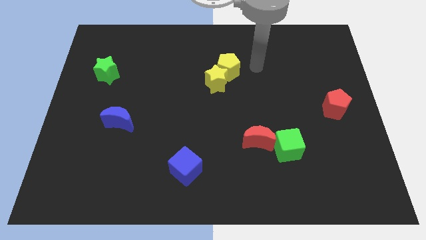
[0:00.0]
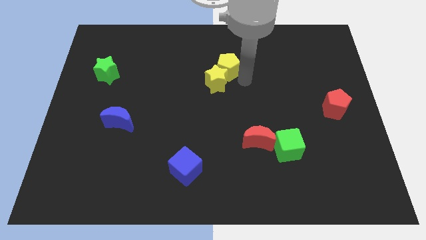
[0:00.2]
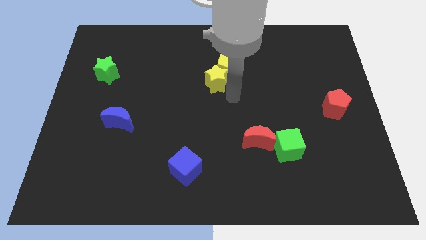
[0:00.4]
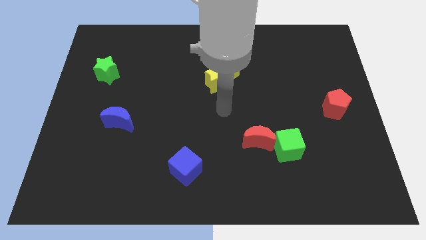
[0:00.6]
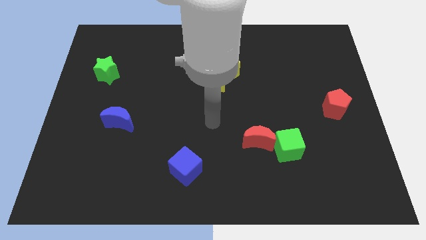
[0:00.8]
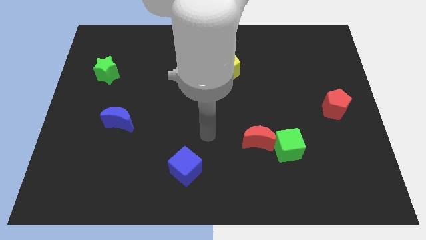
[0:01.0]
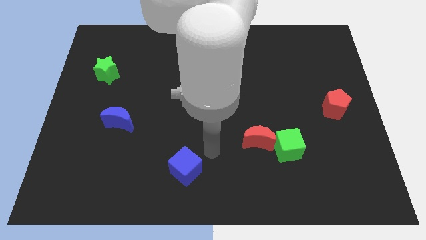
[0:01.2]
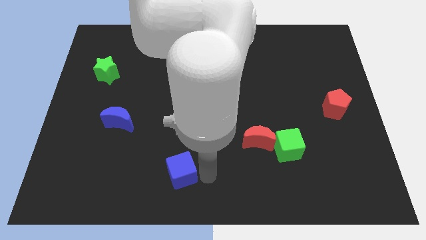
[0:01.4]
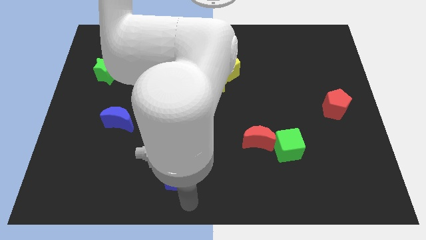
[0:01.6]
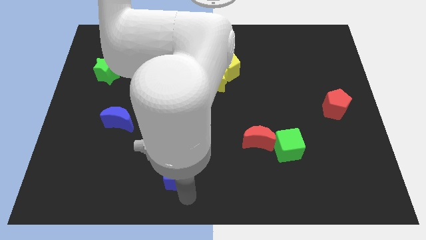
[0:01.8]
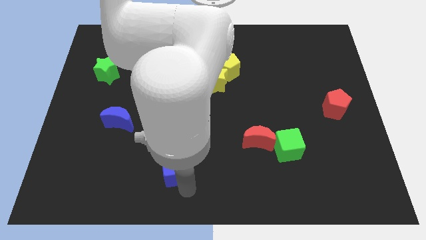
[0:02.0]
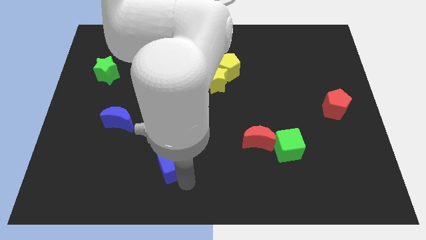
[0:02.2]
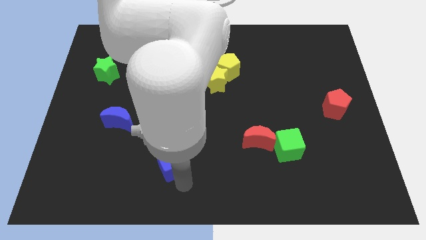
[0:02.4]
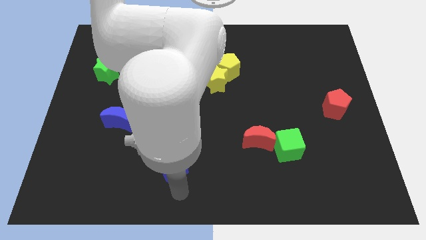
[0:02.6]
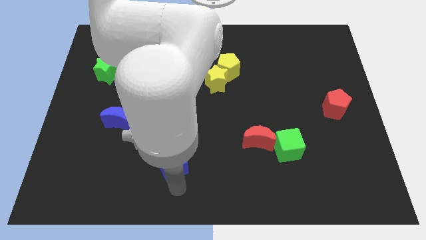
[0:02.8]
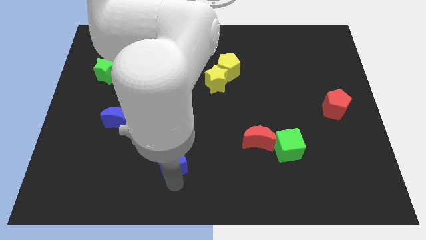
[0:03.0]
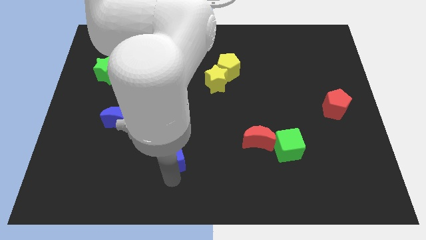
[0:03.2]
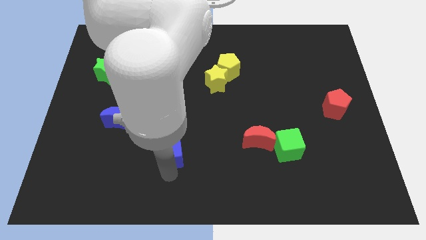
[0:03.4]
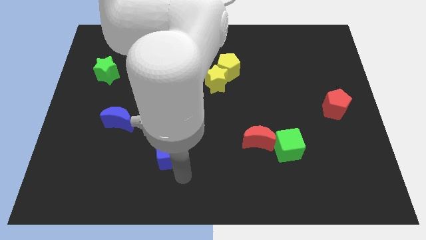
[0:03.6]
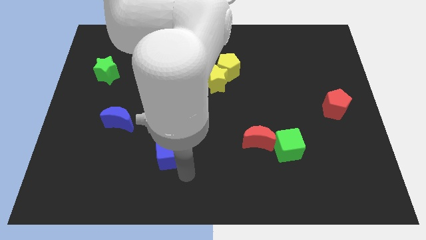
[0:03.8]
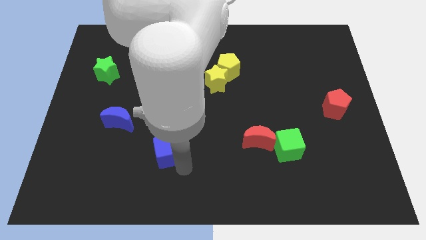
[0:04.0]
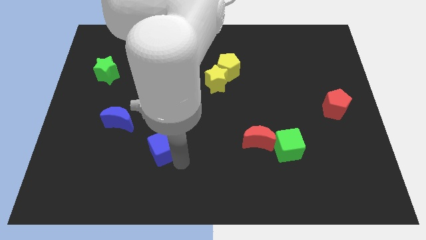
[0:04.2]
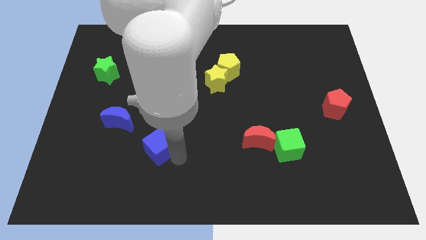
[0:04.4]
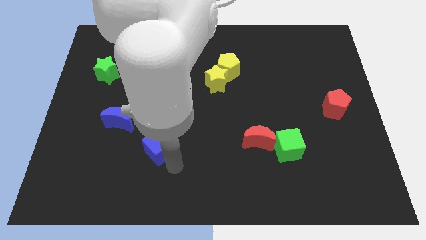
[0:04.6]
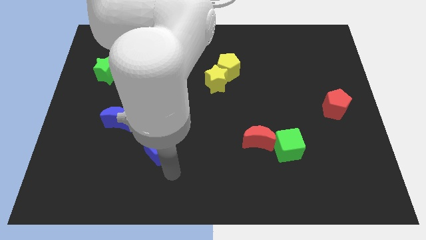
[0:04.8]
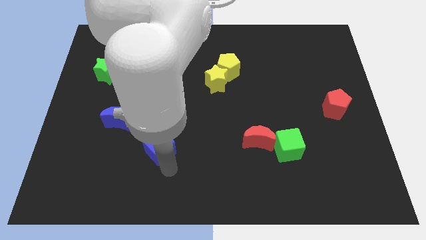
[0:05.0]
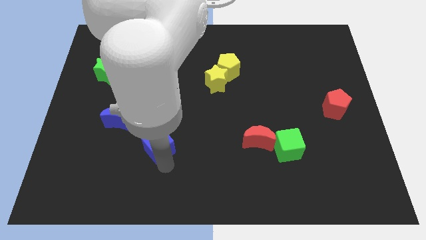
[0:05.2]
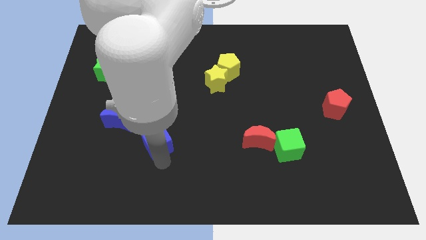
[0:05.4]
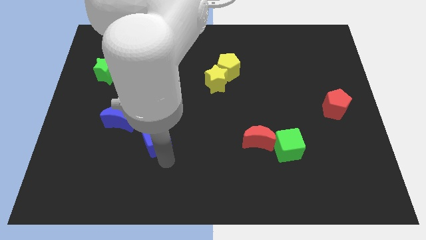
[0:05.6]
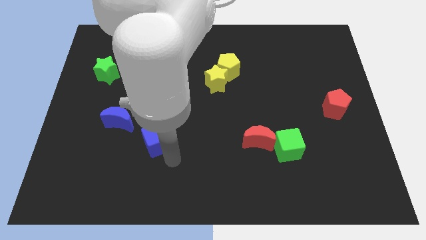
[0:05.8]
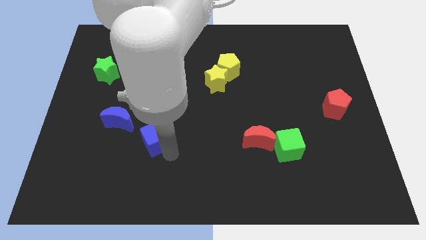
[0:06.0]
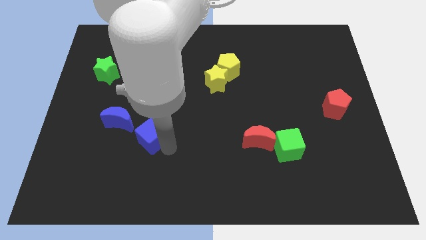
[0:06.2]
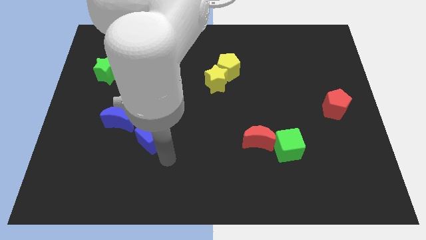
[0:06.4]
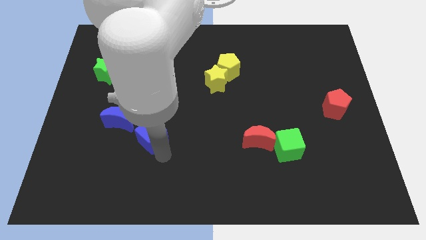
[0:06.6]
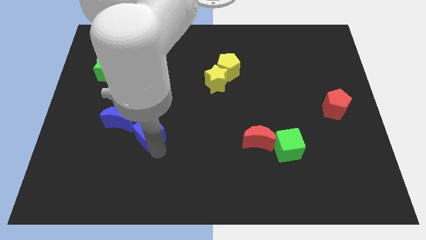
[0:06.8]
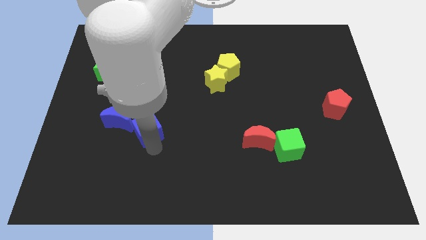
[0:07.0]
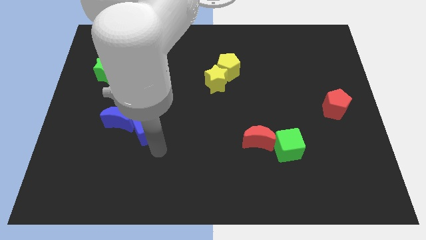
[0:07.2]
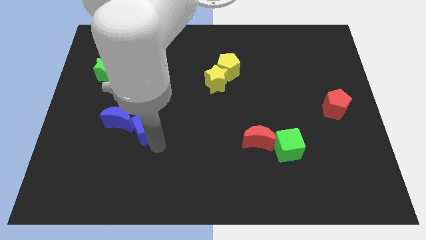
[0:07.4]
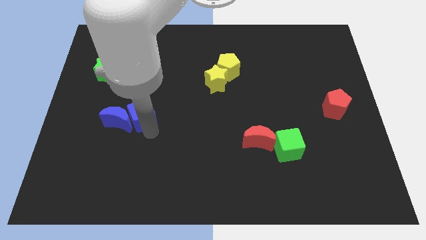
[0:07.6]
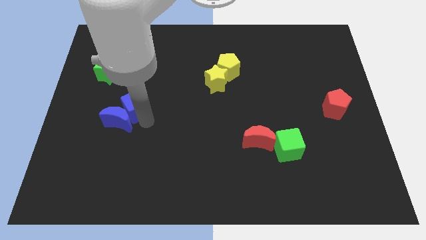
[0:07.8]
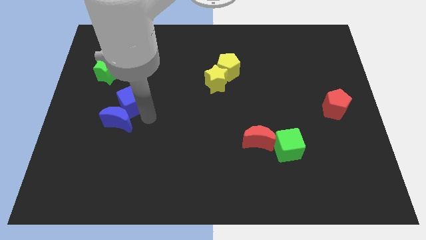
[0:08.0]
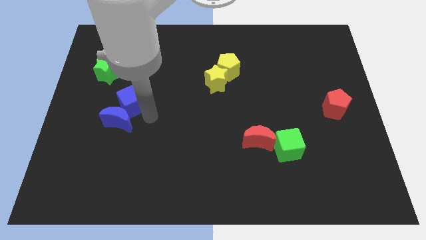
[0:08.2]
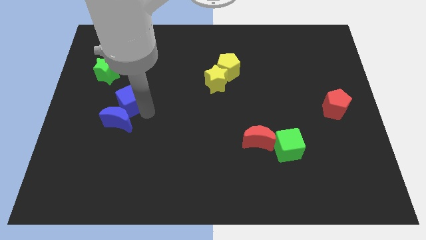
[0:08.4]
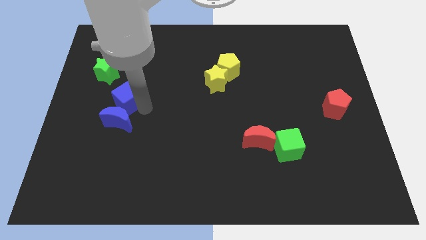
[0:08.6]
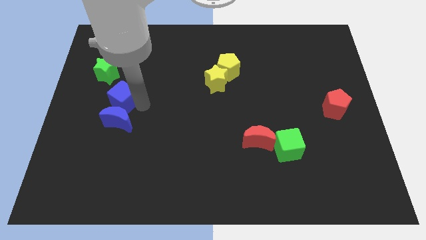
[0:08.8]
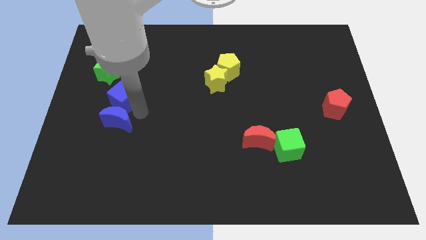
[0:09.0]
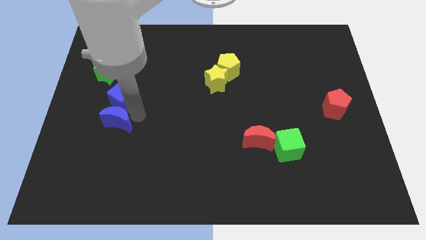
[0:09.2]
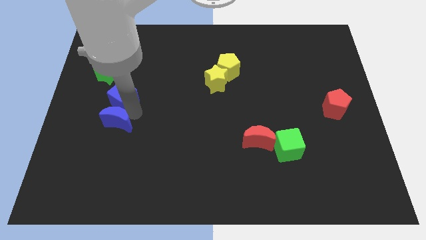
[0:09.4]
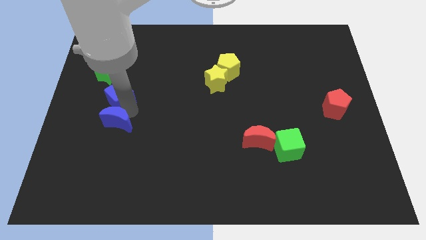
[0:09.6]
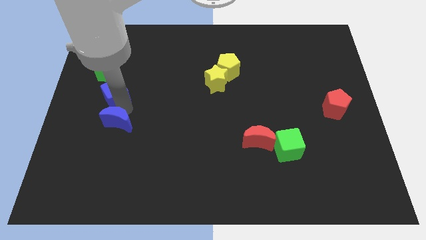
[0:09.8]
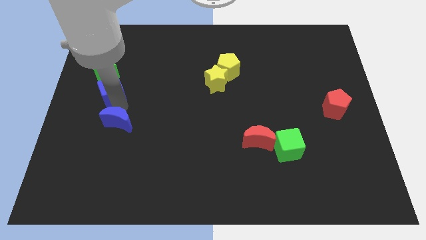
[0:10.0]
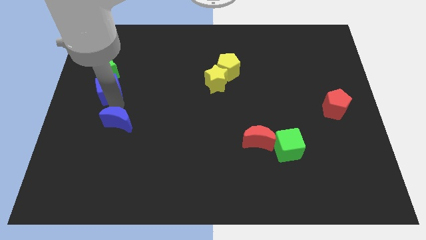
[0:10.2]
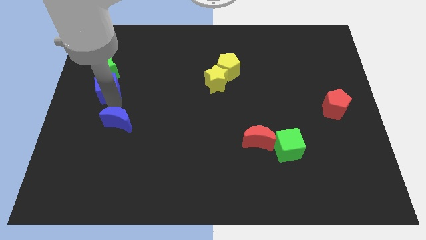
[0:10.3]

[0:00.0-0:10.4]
push the blue cube close to the green star

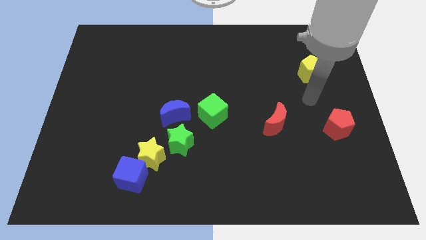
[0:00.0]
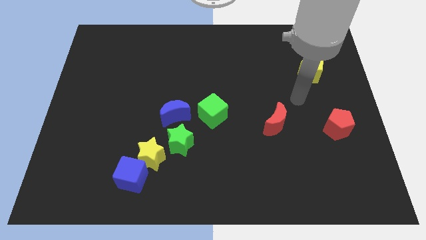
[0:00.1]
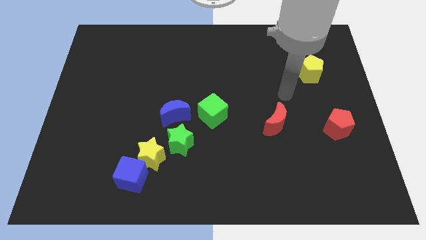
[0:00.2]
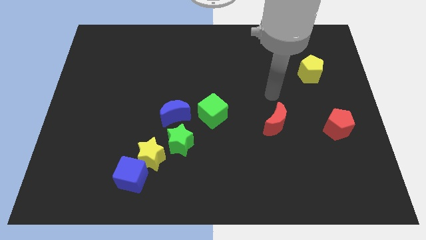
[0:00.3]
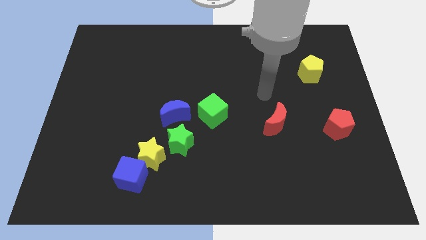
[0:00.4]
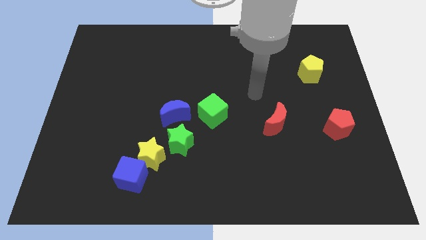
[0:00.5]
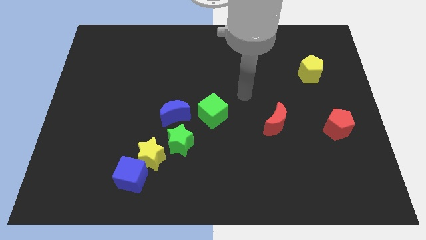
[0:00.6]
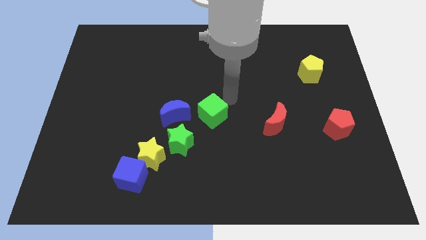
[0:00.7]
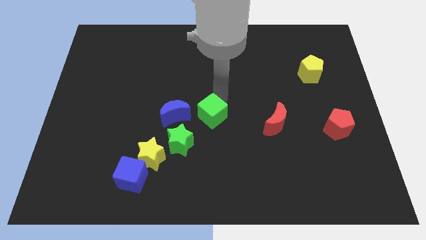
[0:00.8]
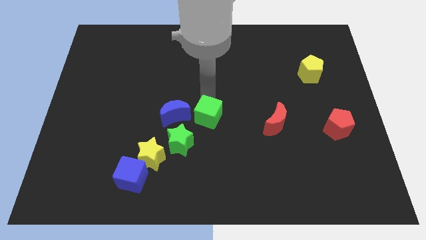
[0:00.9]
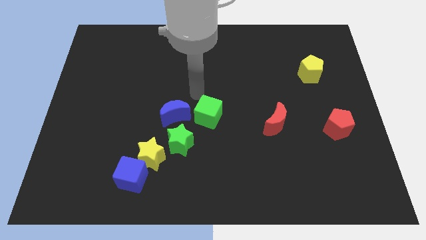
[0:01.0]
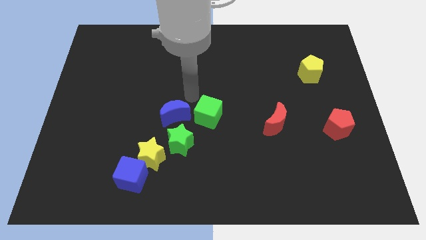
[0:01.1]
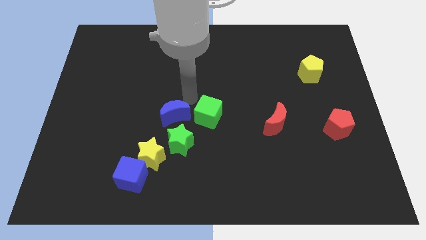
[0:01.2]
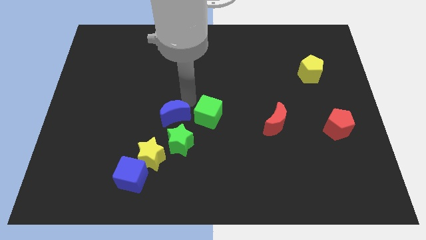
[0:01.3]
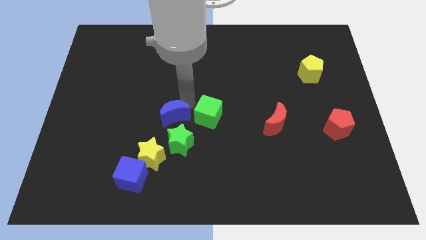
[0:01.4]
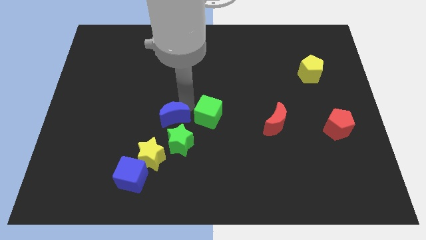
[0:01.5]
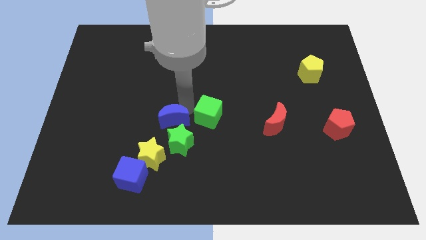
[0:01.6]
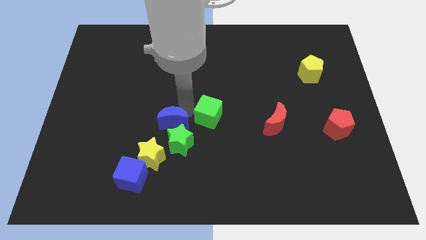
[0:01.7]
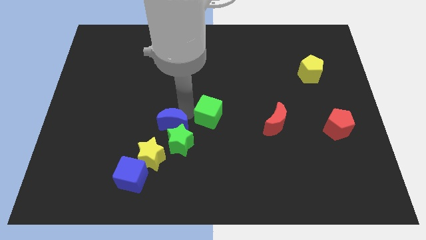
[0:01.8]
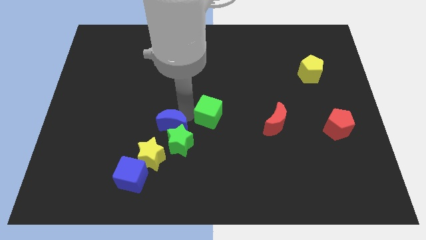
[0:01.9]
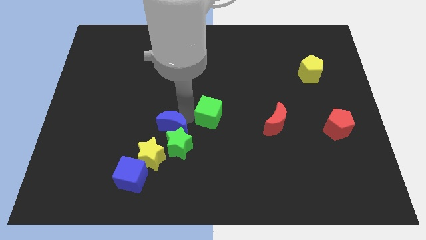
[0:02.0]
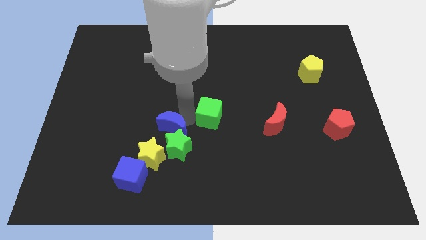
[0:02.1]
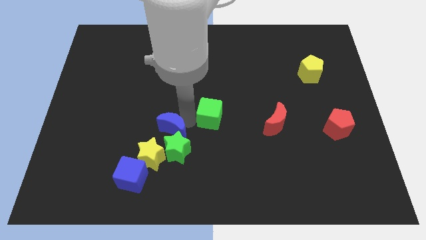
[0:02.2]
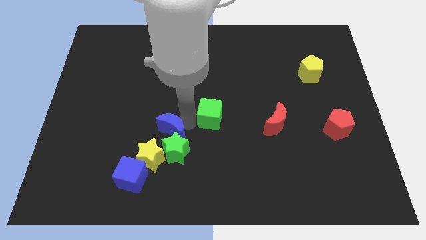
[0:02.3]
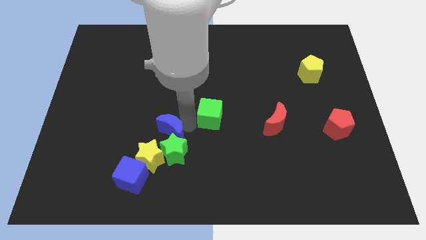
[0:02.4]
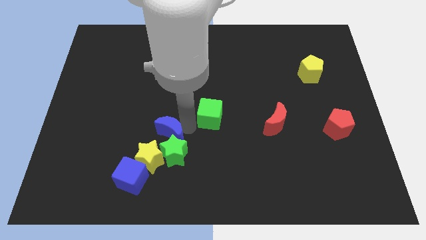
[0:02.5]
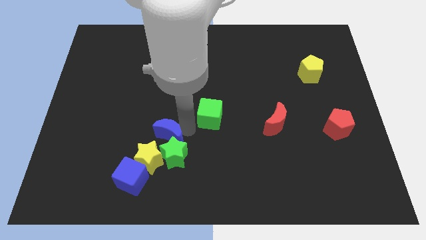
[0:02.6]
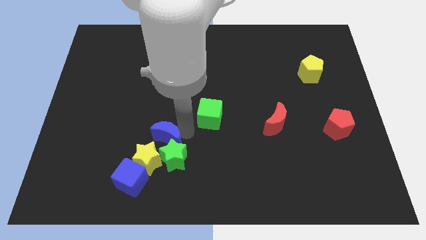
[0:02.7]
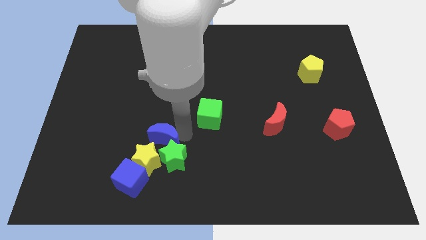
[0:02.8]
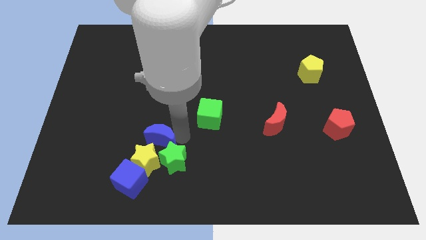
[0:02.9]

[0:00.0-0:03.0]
slide the blue moon towards the yellow star
